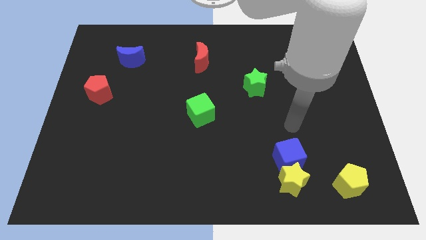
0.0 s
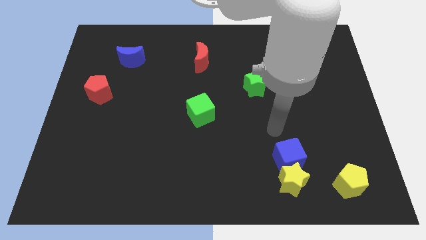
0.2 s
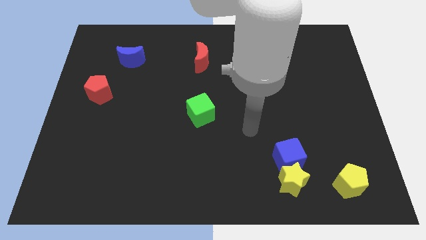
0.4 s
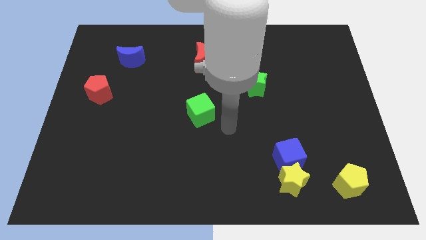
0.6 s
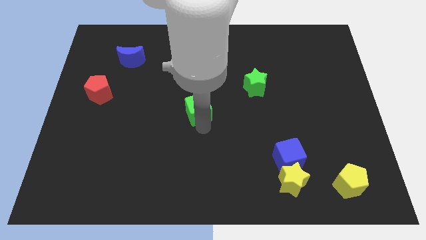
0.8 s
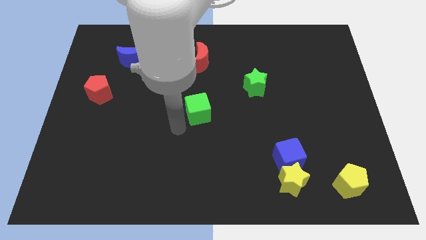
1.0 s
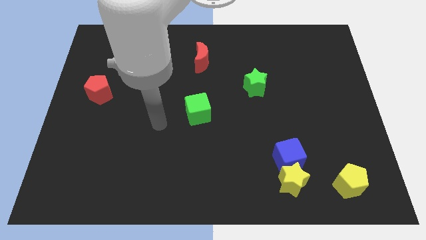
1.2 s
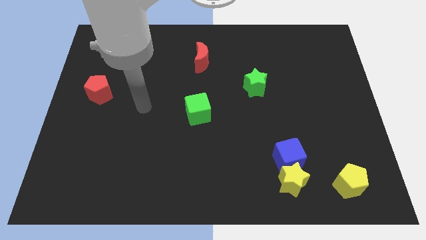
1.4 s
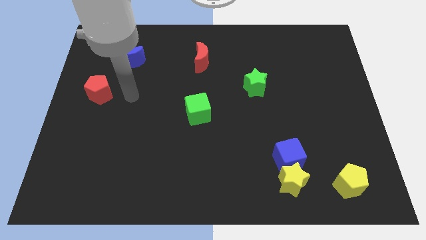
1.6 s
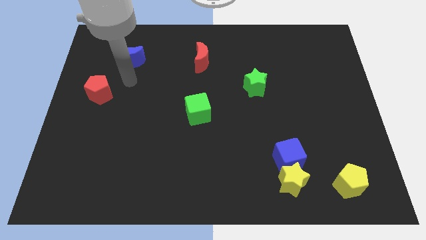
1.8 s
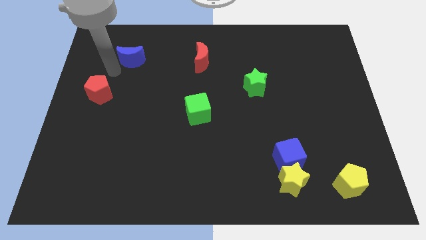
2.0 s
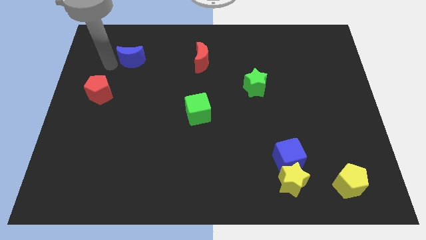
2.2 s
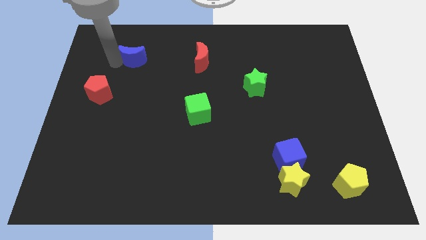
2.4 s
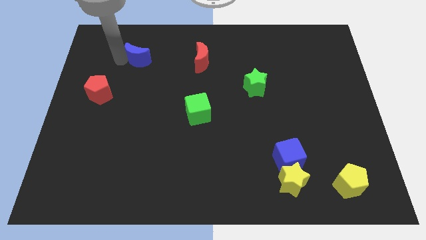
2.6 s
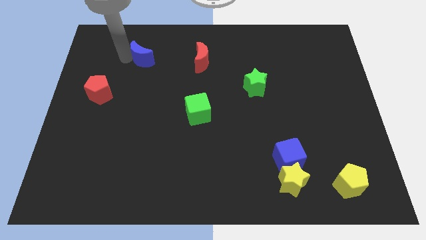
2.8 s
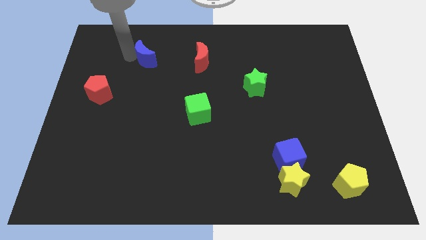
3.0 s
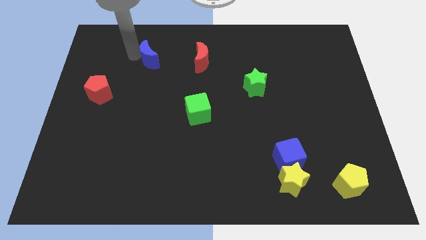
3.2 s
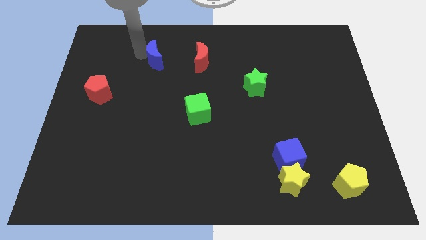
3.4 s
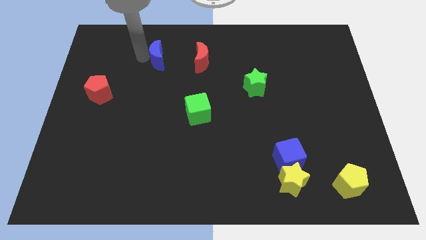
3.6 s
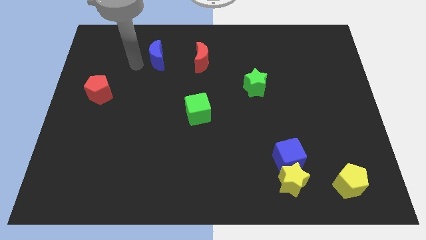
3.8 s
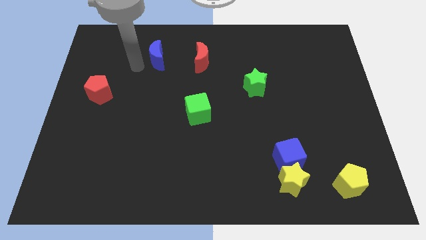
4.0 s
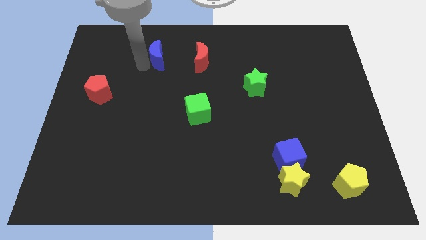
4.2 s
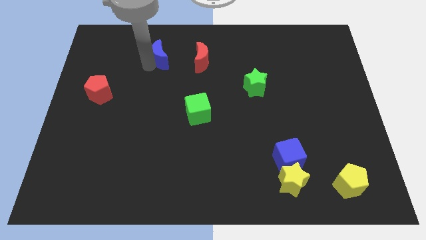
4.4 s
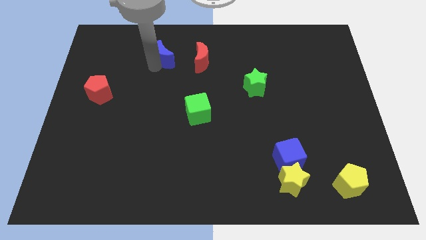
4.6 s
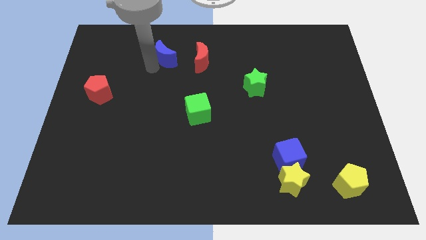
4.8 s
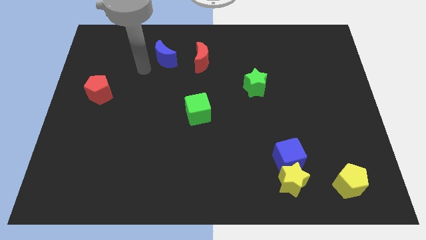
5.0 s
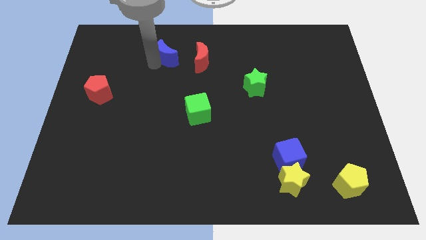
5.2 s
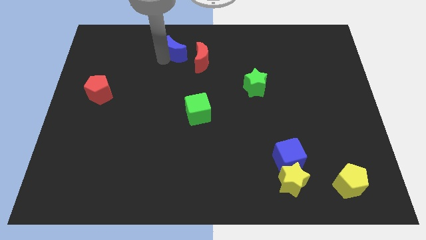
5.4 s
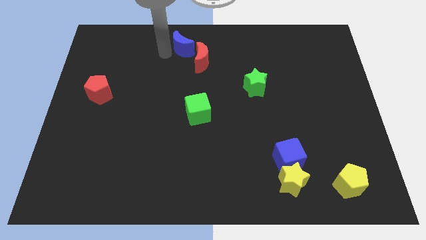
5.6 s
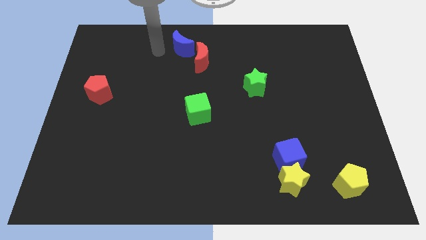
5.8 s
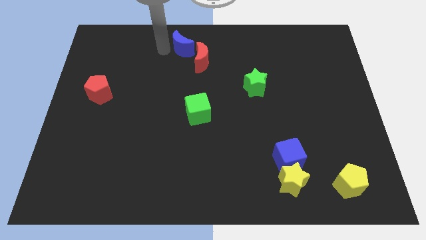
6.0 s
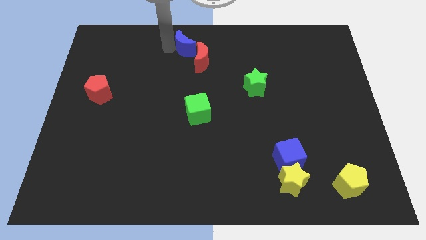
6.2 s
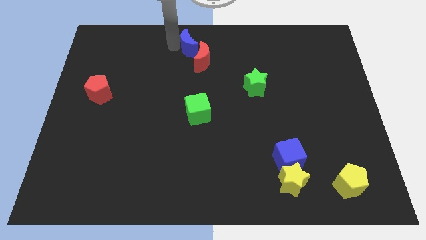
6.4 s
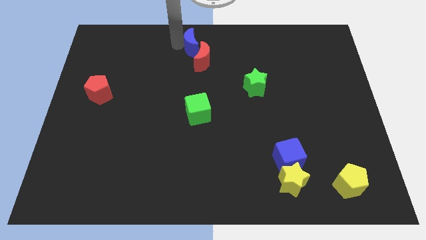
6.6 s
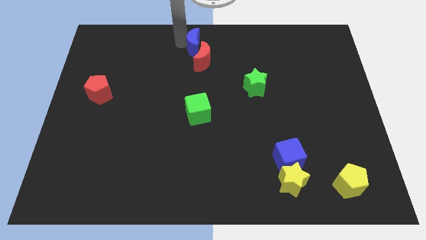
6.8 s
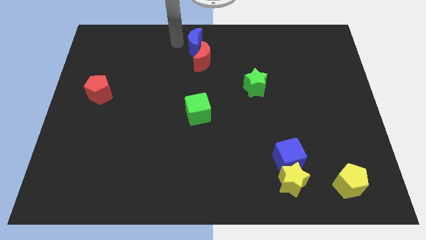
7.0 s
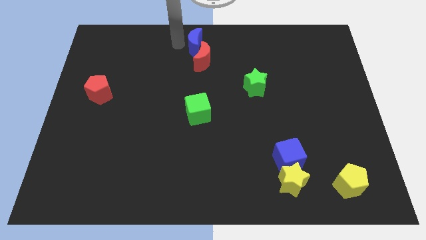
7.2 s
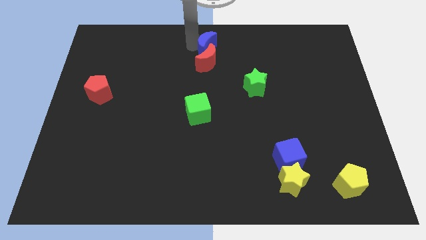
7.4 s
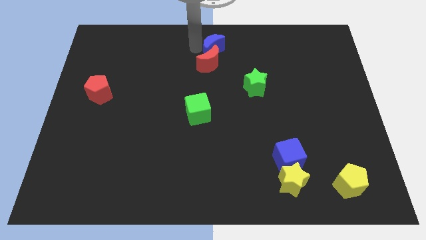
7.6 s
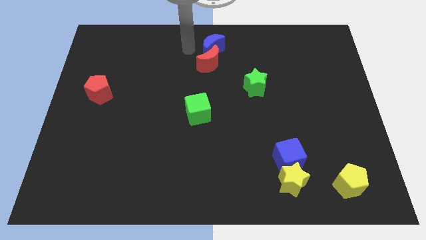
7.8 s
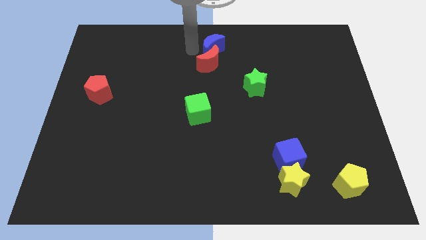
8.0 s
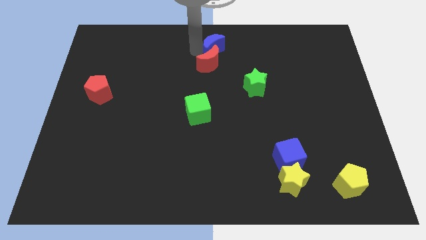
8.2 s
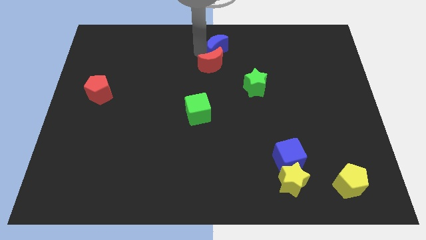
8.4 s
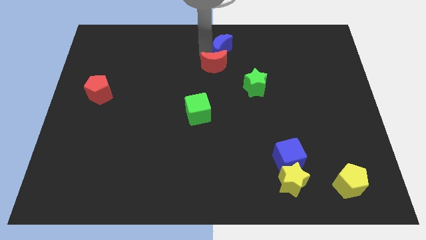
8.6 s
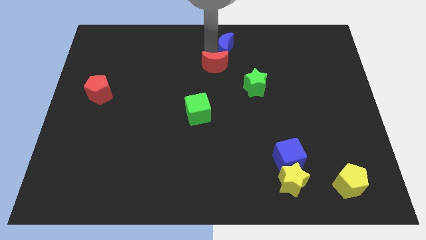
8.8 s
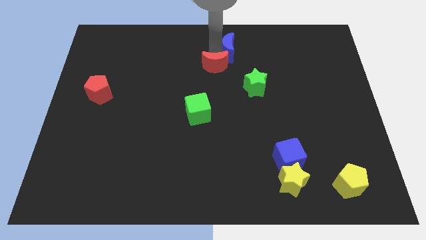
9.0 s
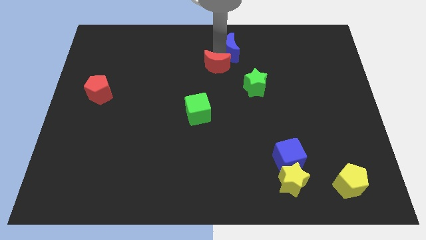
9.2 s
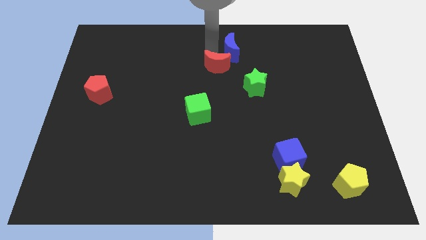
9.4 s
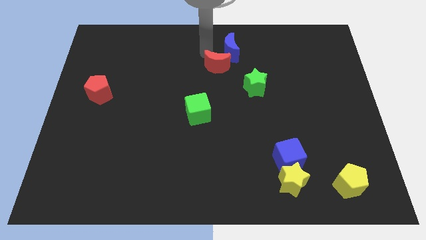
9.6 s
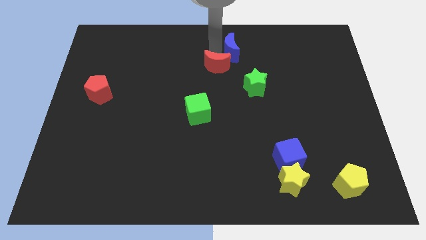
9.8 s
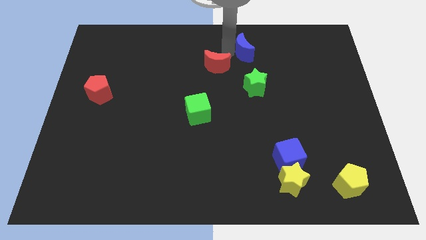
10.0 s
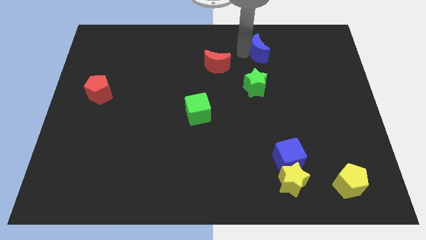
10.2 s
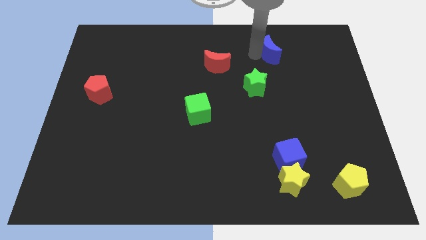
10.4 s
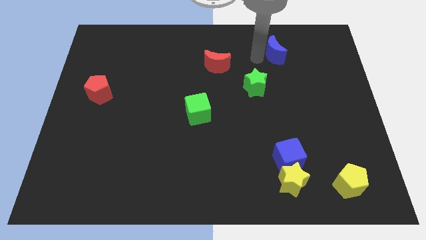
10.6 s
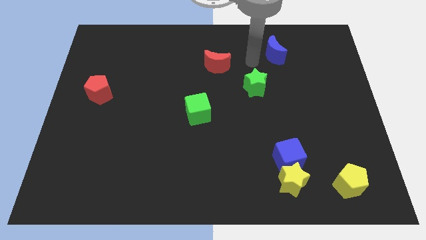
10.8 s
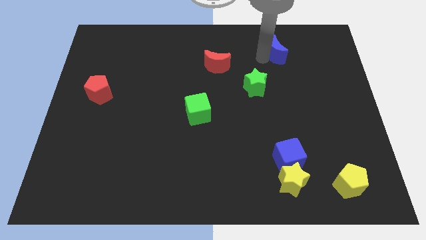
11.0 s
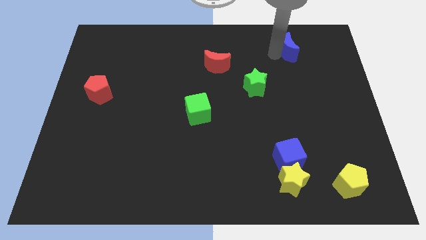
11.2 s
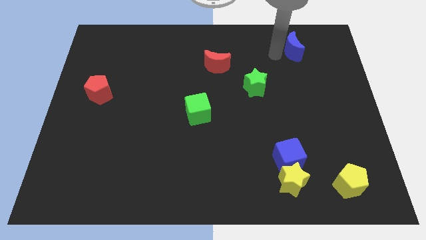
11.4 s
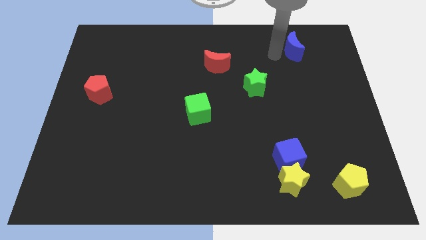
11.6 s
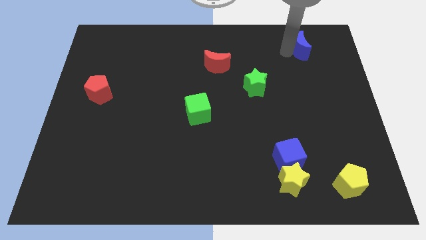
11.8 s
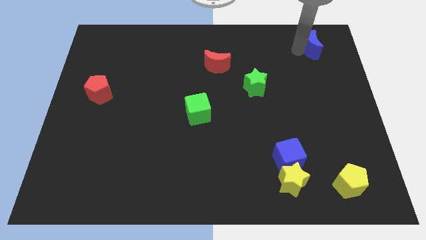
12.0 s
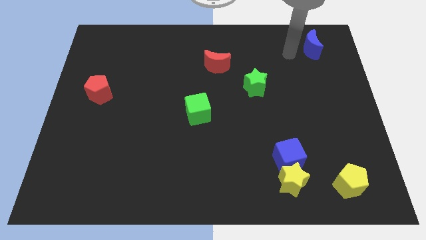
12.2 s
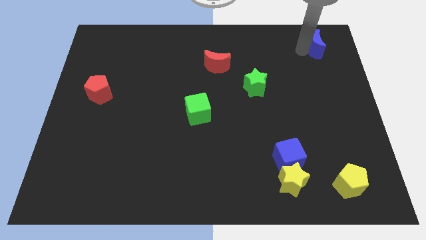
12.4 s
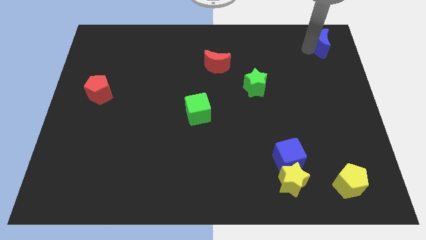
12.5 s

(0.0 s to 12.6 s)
slide the blue moon to the top right

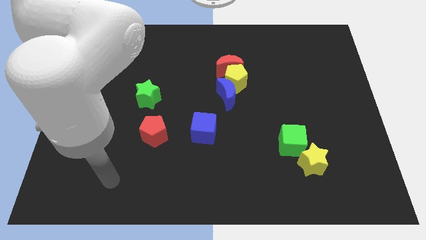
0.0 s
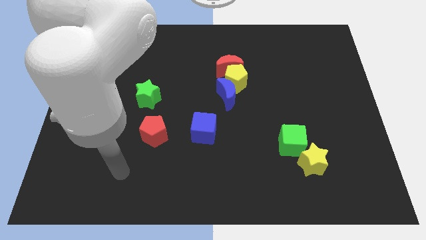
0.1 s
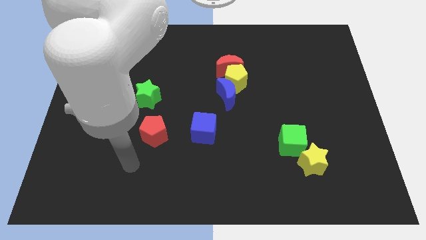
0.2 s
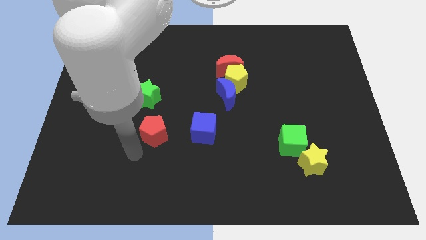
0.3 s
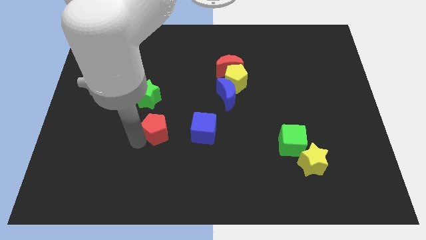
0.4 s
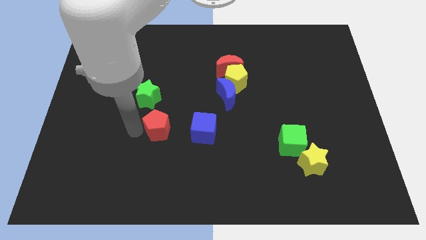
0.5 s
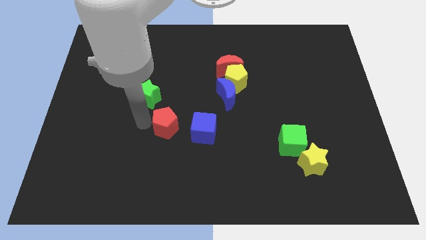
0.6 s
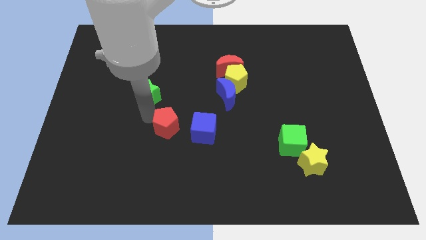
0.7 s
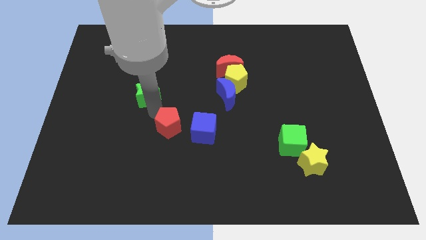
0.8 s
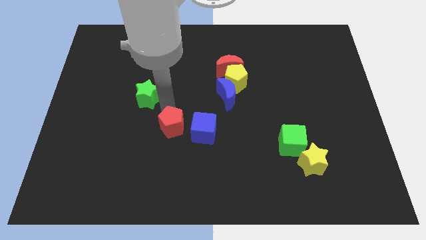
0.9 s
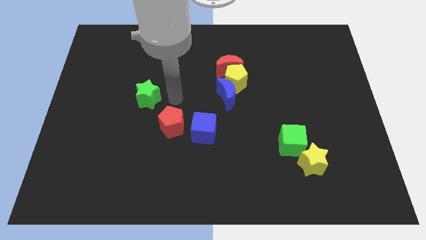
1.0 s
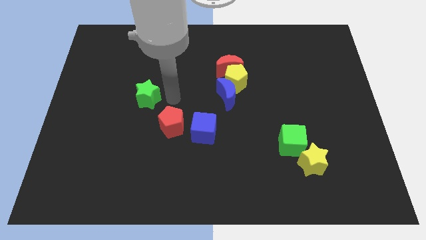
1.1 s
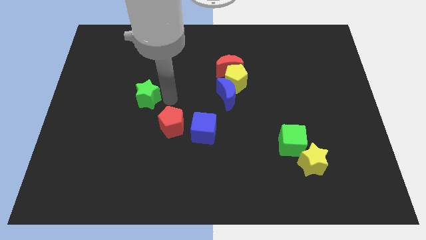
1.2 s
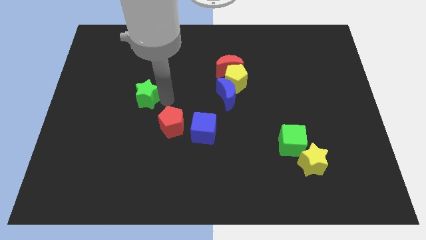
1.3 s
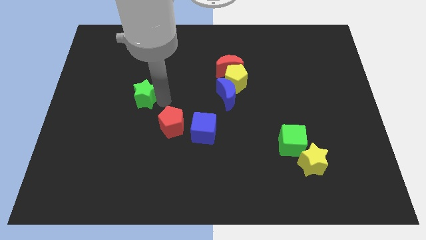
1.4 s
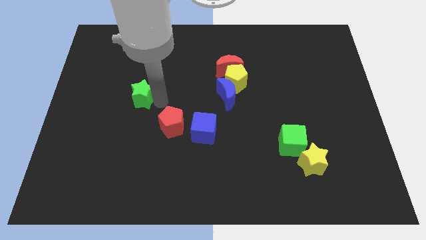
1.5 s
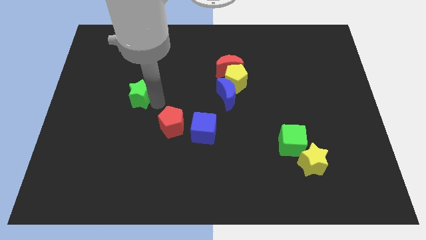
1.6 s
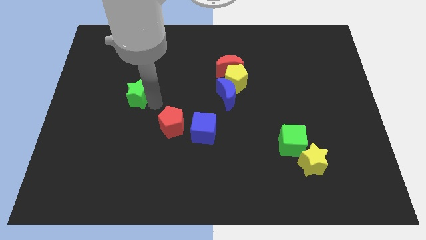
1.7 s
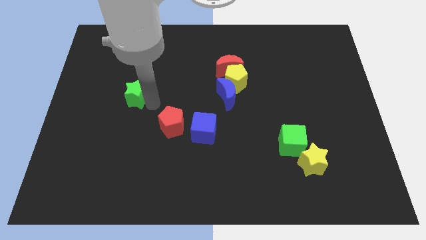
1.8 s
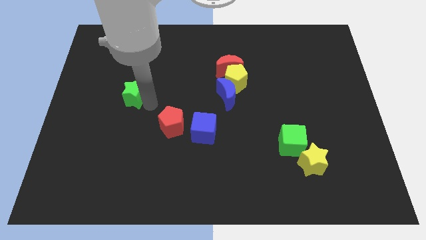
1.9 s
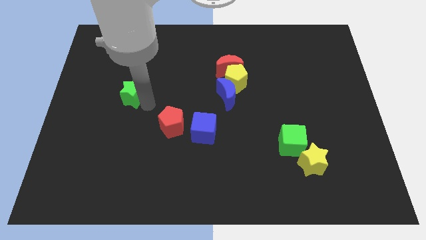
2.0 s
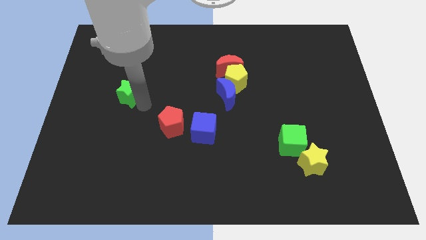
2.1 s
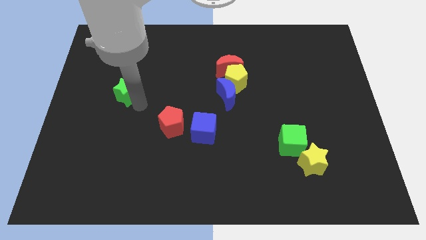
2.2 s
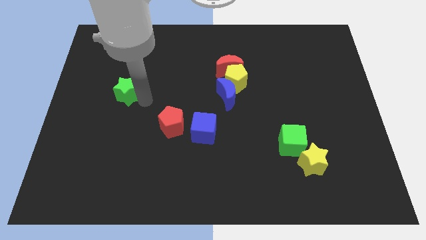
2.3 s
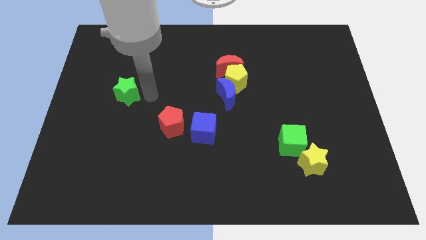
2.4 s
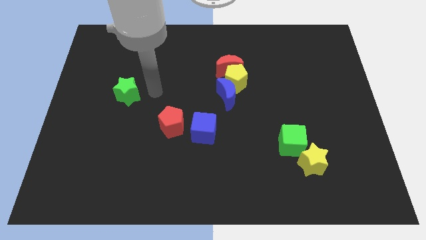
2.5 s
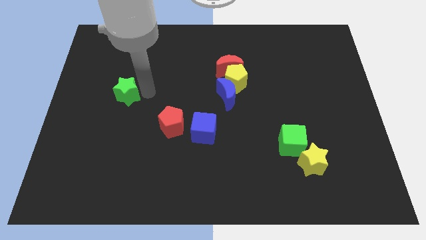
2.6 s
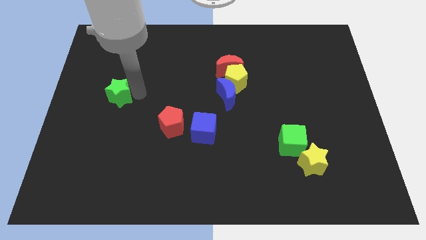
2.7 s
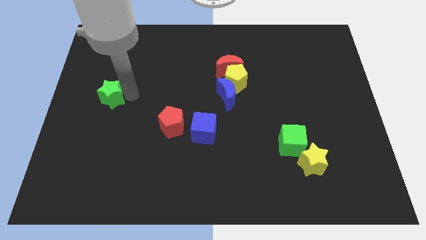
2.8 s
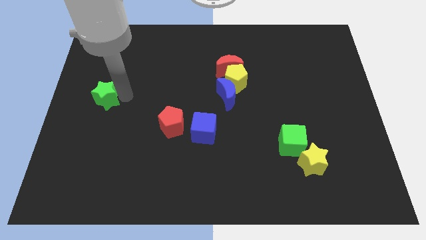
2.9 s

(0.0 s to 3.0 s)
slide the green star to the left side
